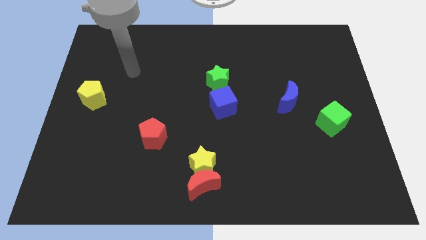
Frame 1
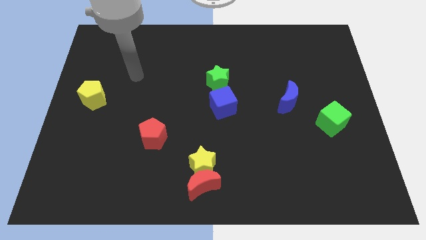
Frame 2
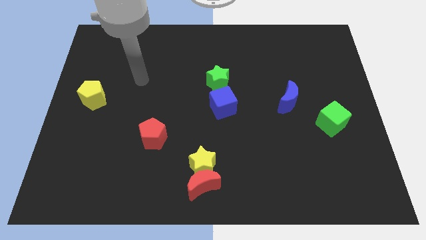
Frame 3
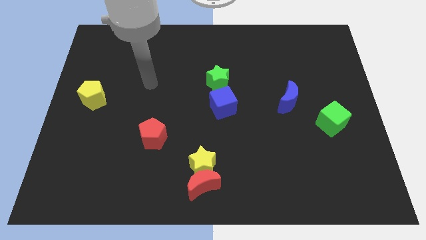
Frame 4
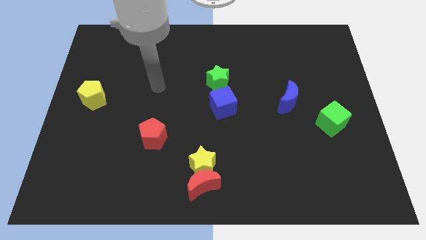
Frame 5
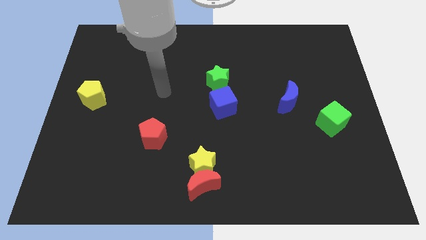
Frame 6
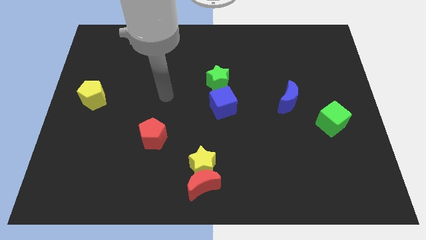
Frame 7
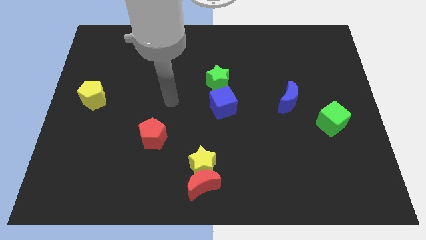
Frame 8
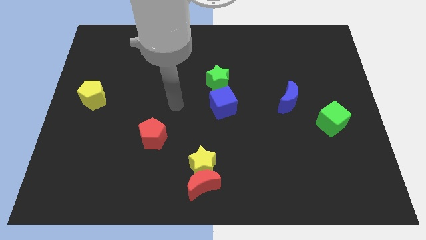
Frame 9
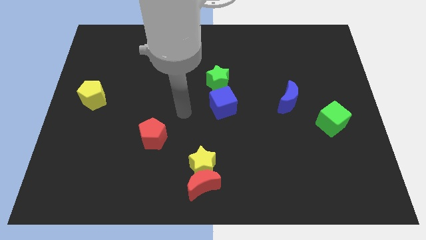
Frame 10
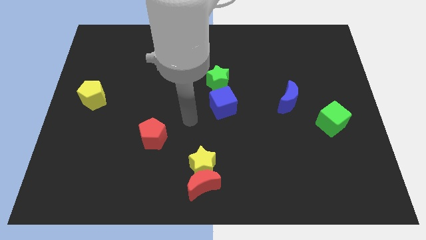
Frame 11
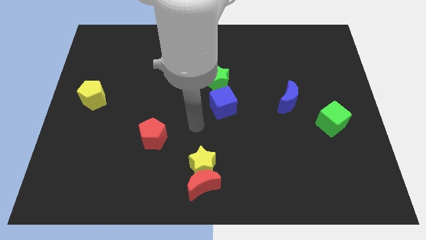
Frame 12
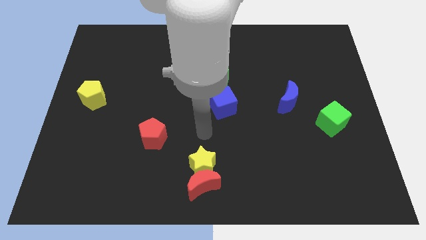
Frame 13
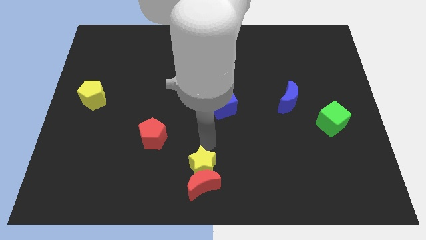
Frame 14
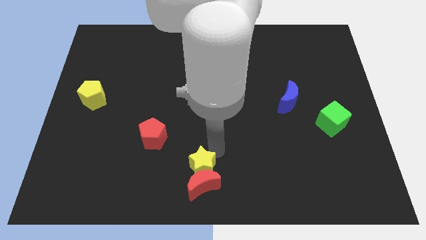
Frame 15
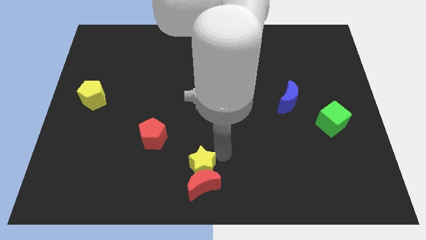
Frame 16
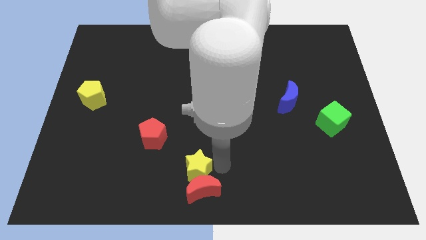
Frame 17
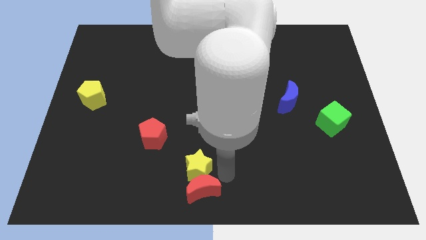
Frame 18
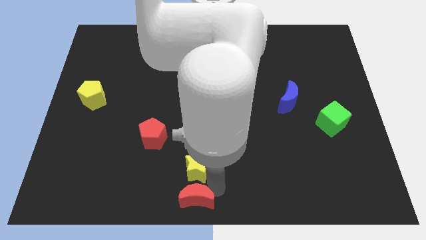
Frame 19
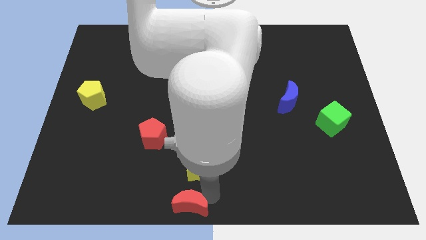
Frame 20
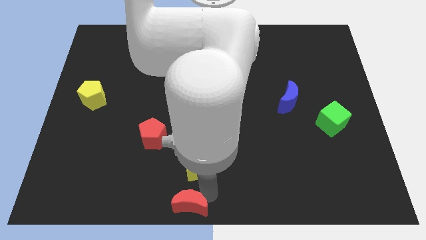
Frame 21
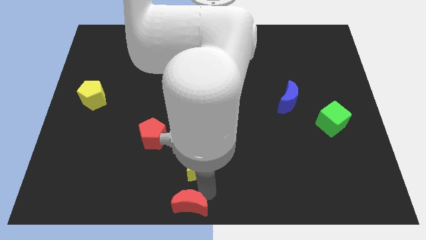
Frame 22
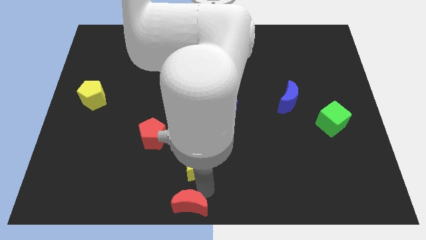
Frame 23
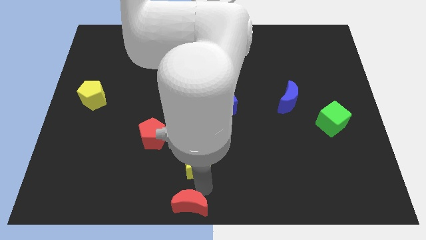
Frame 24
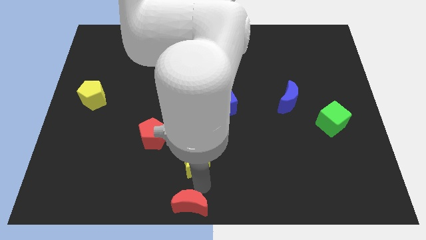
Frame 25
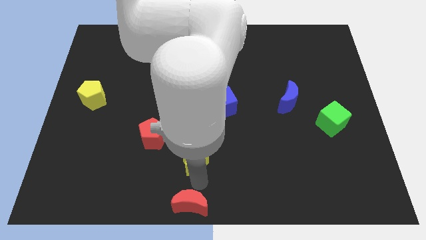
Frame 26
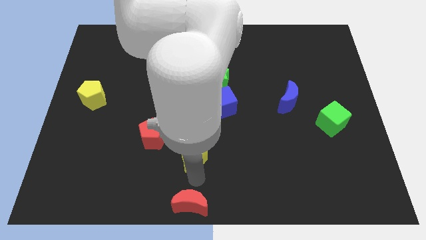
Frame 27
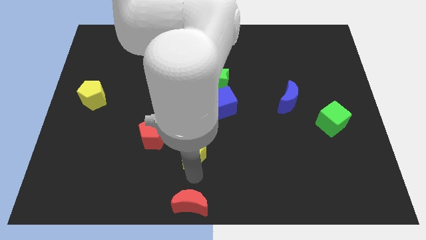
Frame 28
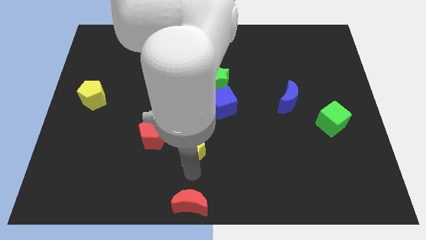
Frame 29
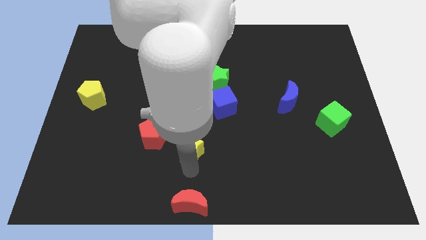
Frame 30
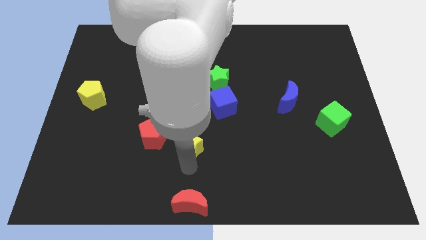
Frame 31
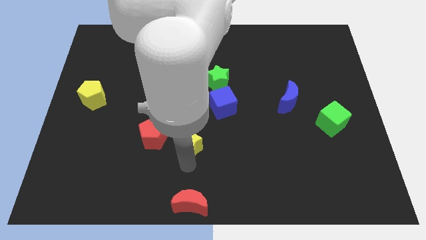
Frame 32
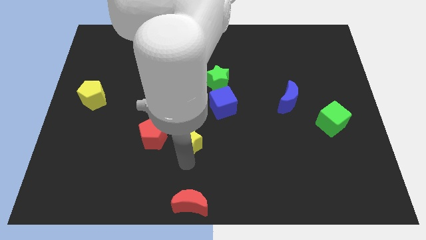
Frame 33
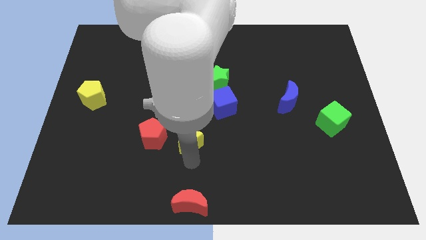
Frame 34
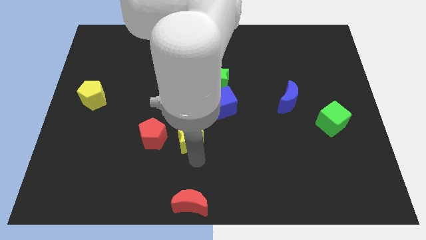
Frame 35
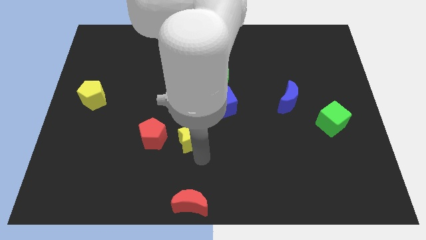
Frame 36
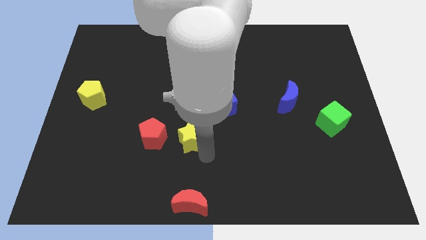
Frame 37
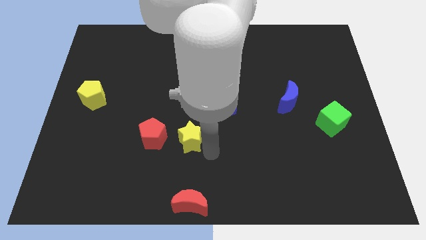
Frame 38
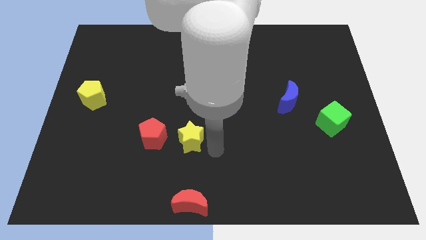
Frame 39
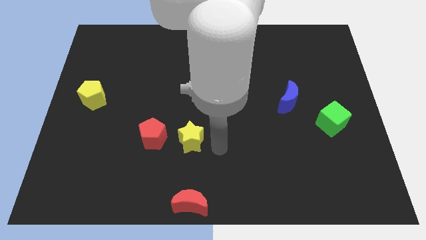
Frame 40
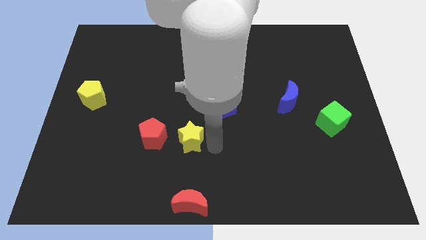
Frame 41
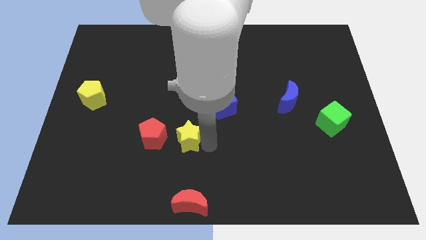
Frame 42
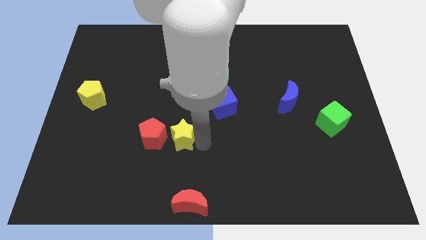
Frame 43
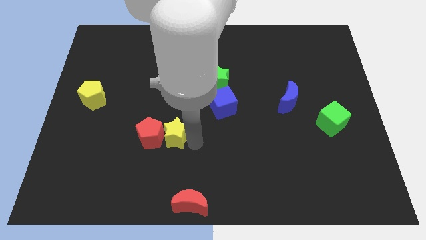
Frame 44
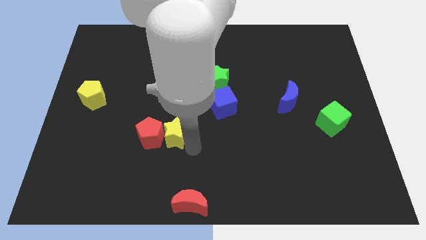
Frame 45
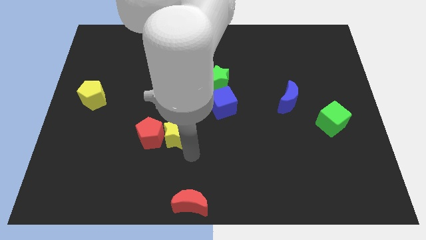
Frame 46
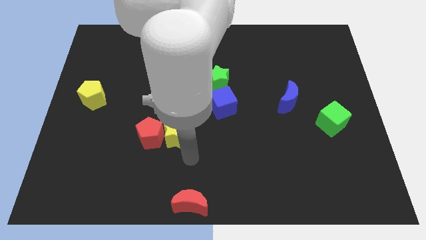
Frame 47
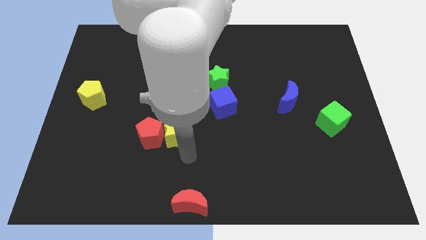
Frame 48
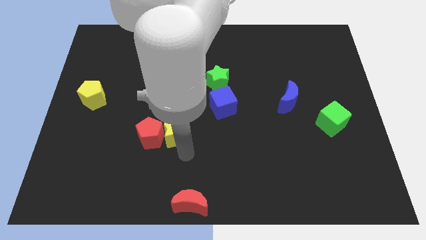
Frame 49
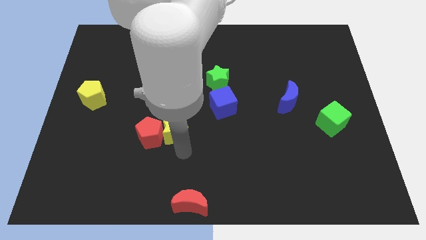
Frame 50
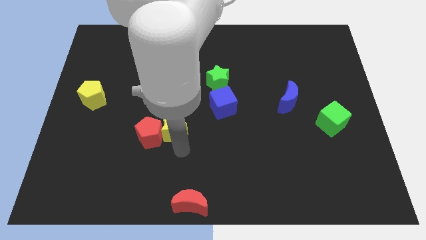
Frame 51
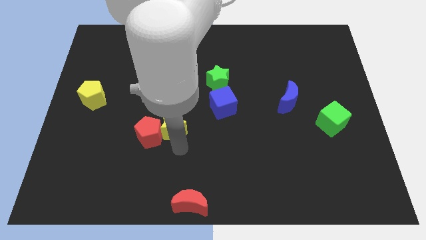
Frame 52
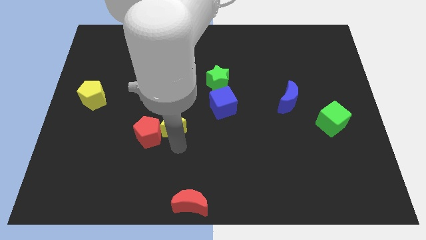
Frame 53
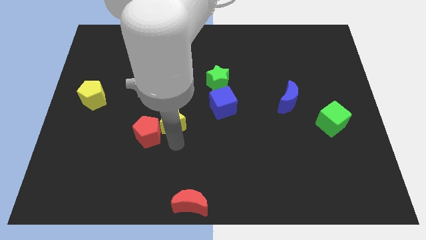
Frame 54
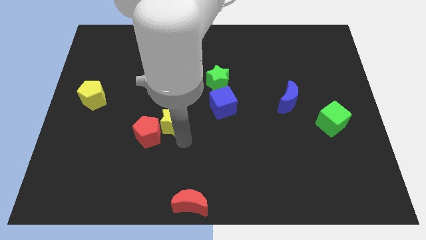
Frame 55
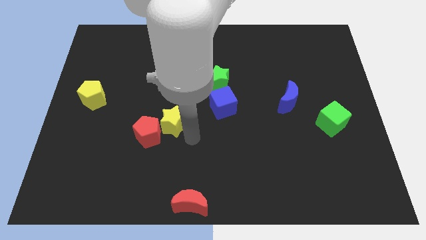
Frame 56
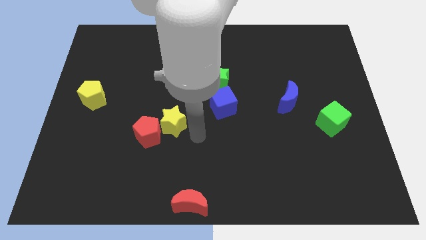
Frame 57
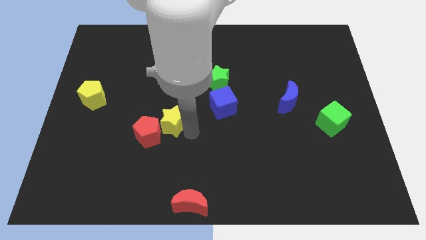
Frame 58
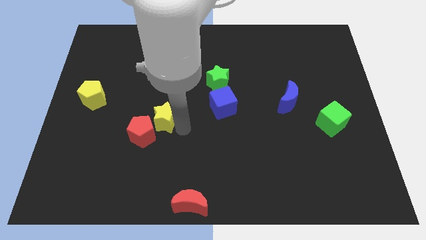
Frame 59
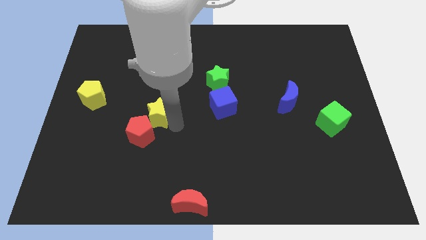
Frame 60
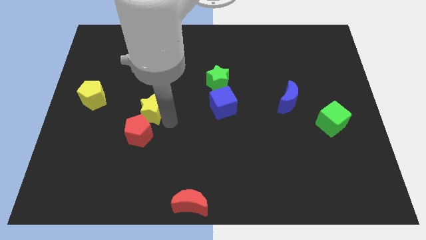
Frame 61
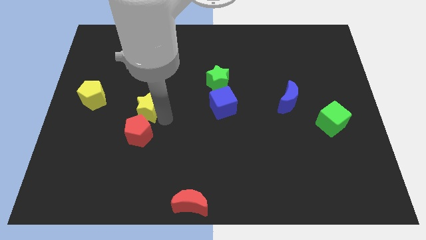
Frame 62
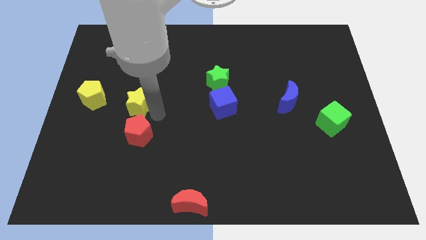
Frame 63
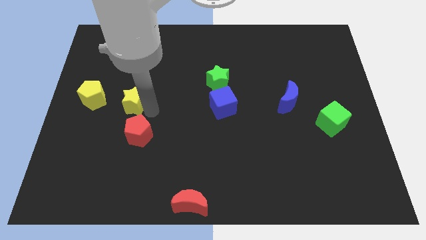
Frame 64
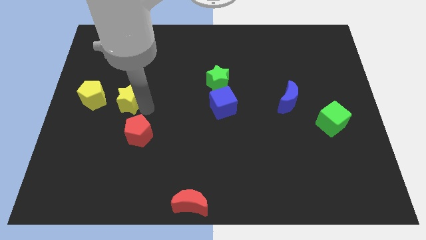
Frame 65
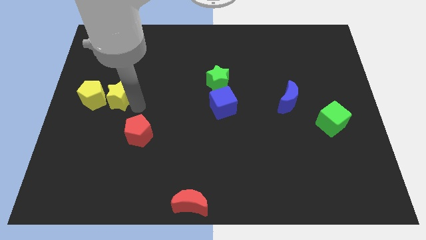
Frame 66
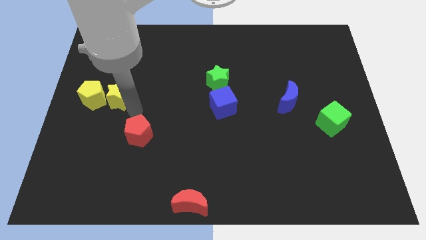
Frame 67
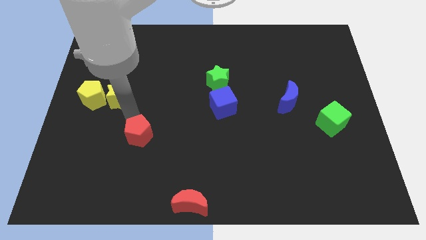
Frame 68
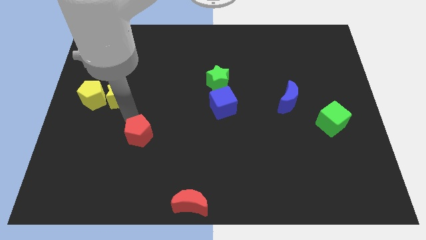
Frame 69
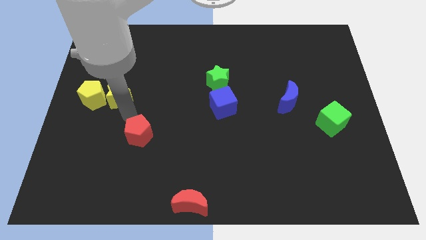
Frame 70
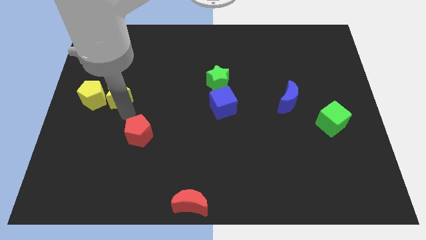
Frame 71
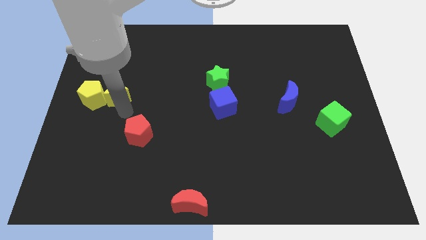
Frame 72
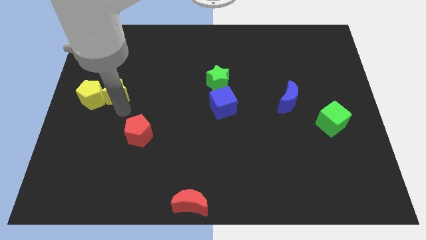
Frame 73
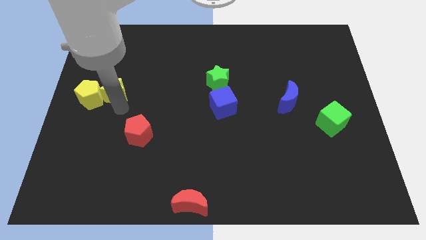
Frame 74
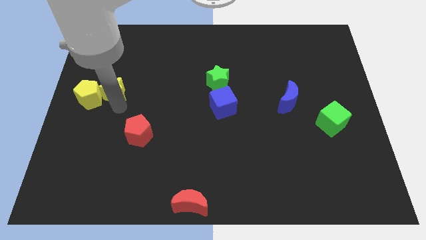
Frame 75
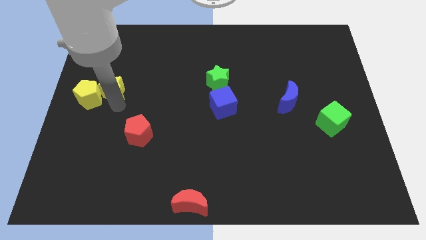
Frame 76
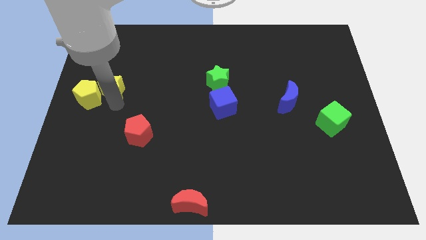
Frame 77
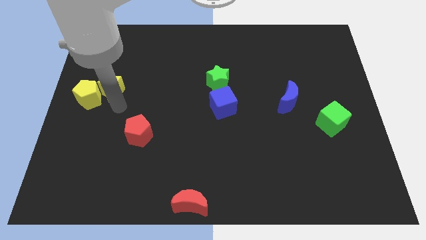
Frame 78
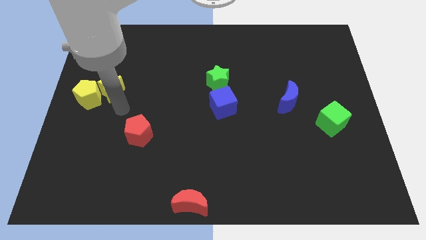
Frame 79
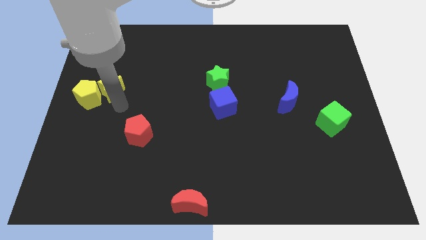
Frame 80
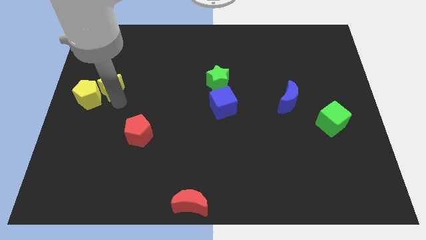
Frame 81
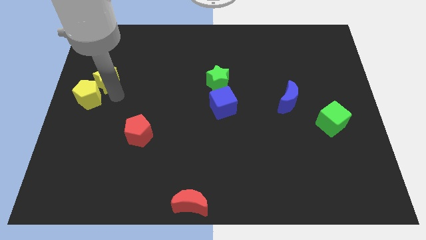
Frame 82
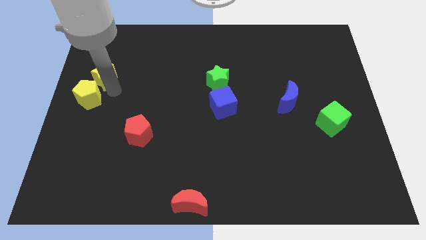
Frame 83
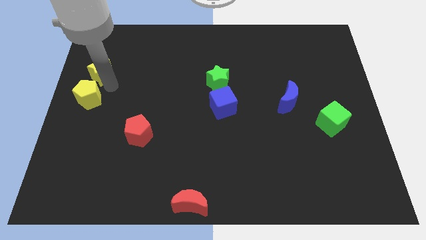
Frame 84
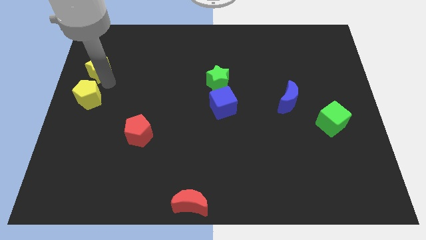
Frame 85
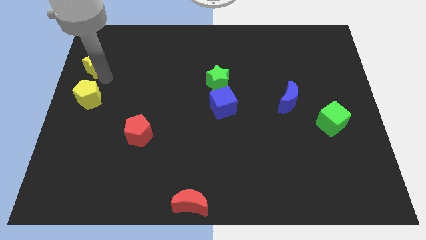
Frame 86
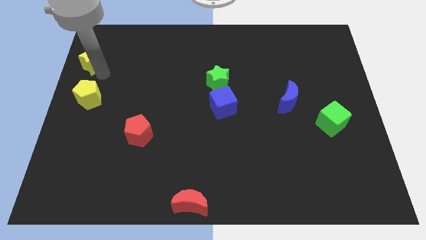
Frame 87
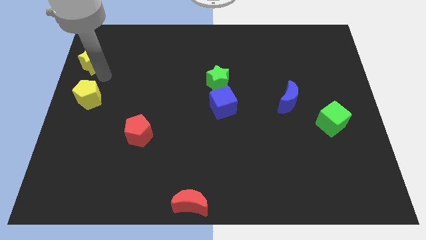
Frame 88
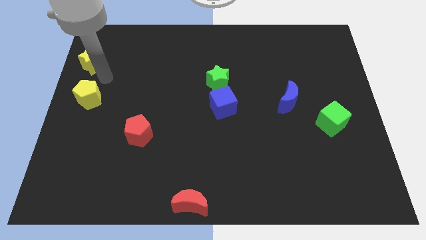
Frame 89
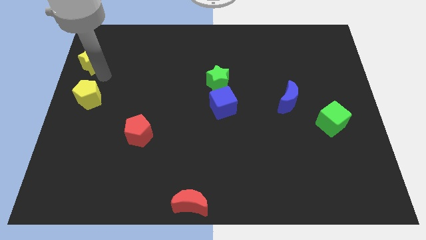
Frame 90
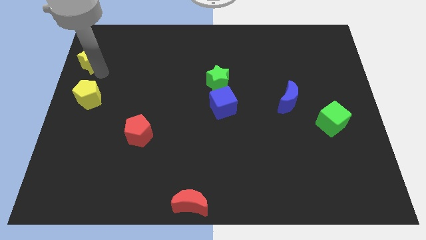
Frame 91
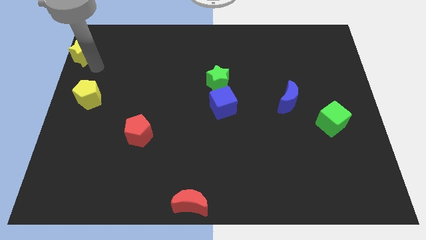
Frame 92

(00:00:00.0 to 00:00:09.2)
push the yellow star to the top left
